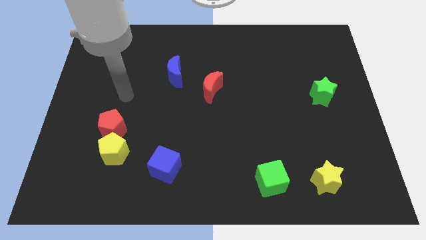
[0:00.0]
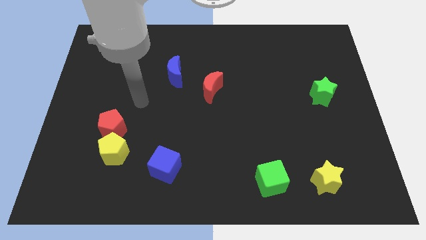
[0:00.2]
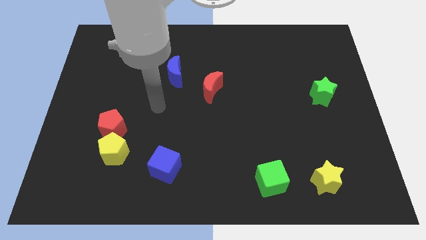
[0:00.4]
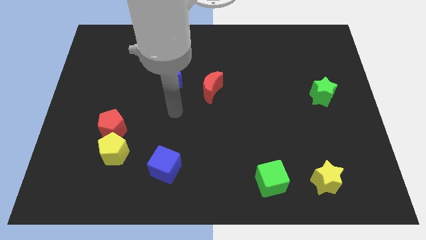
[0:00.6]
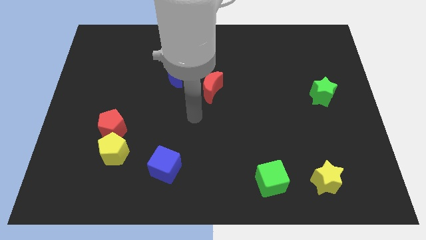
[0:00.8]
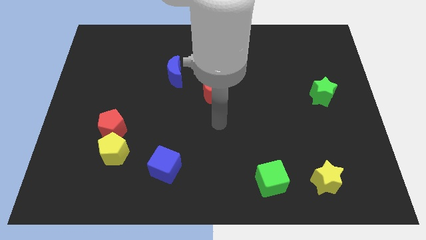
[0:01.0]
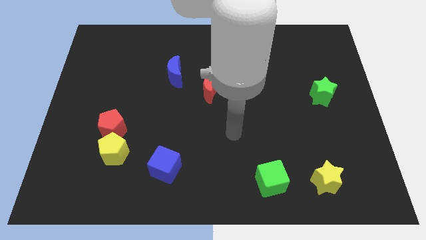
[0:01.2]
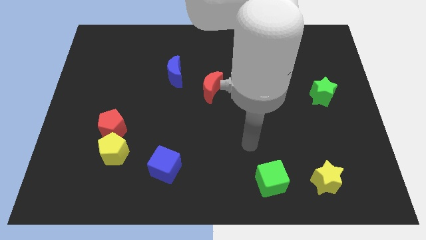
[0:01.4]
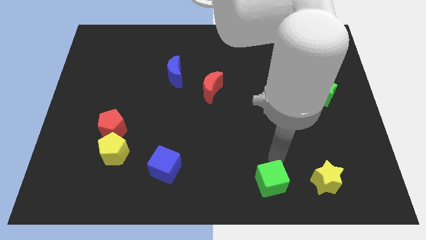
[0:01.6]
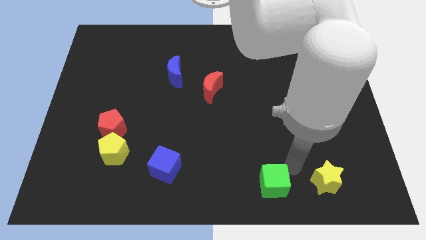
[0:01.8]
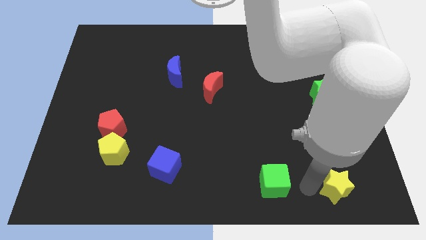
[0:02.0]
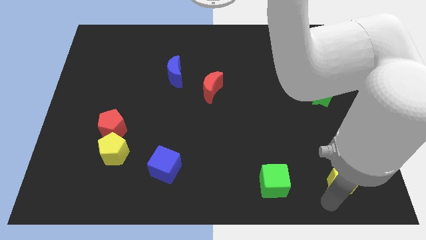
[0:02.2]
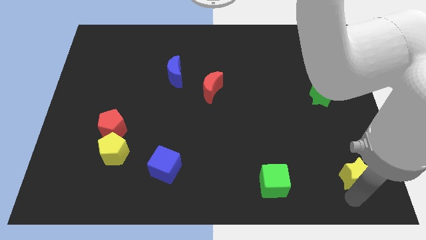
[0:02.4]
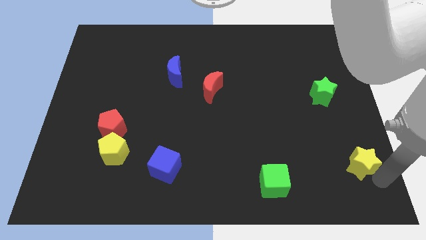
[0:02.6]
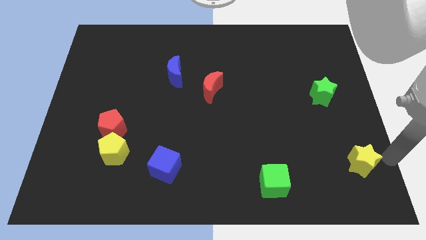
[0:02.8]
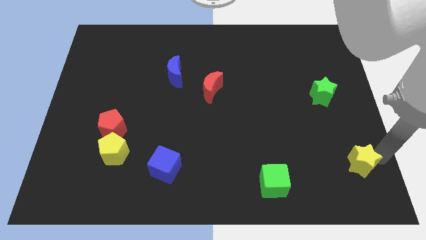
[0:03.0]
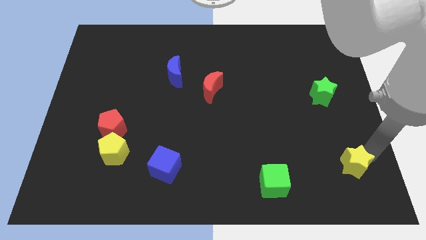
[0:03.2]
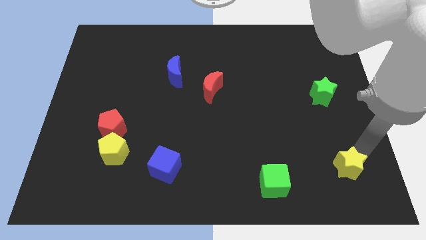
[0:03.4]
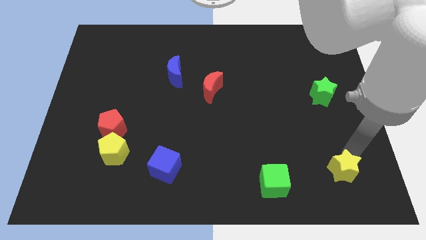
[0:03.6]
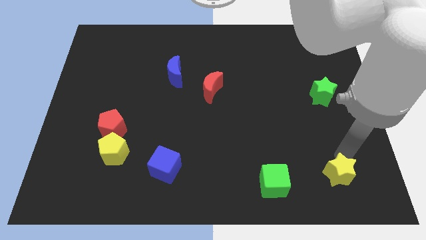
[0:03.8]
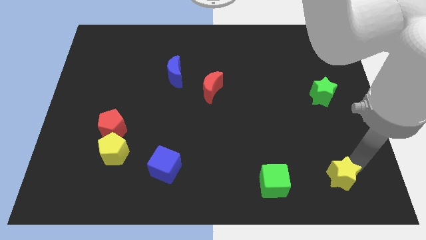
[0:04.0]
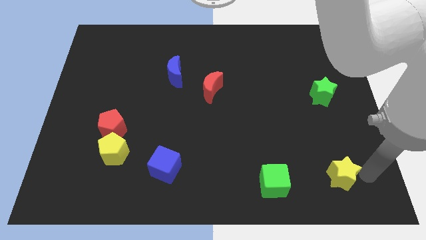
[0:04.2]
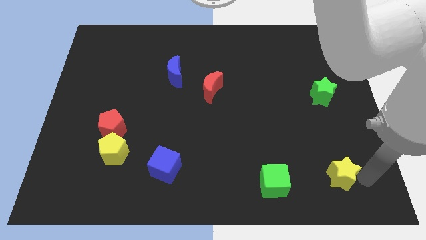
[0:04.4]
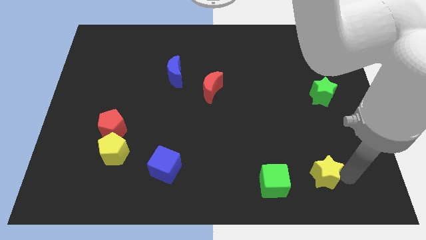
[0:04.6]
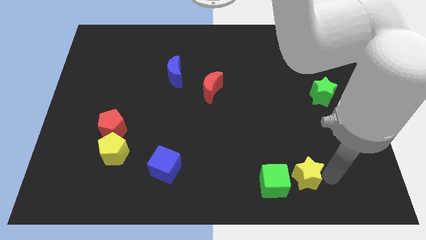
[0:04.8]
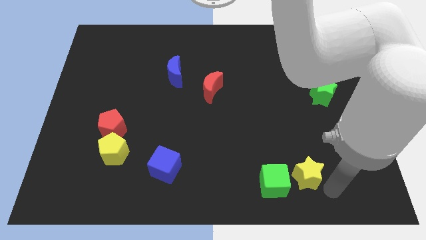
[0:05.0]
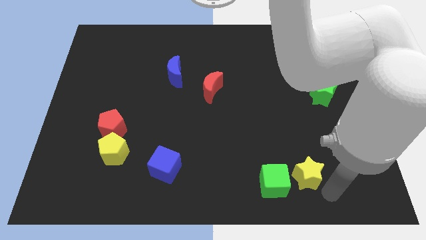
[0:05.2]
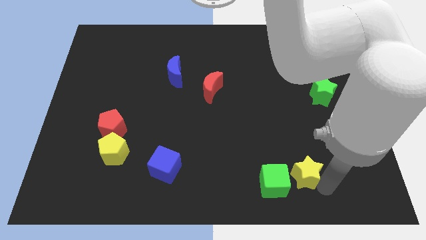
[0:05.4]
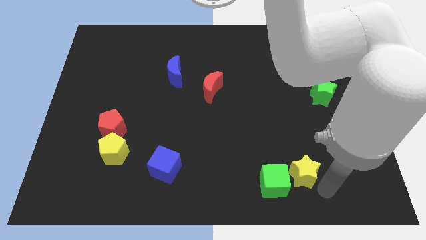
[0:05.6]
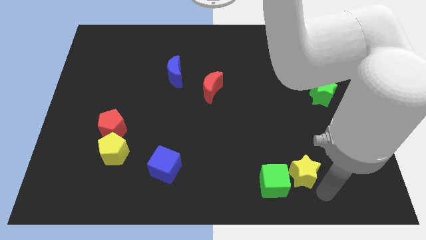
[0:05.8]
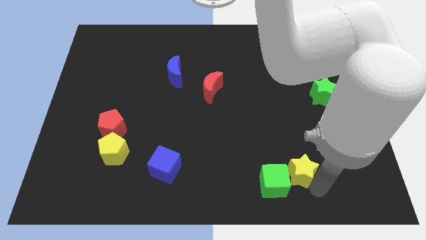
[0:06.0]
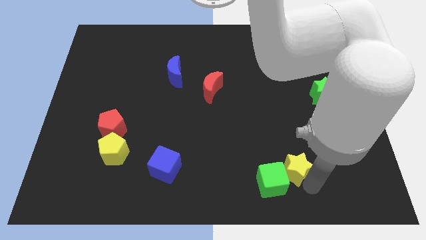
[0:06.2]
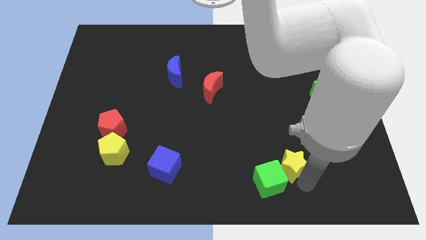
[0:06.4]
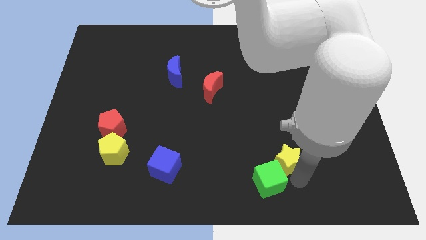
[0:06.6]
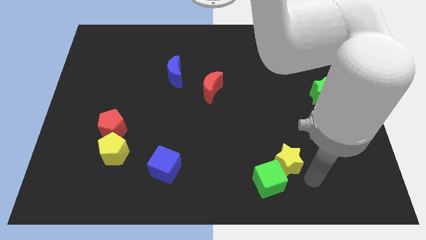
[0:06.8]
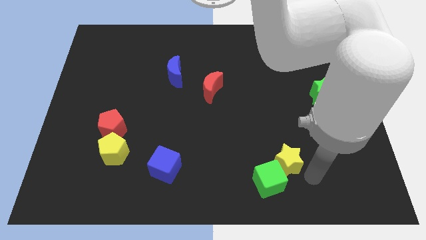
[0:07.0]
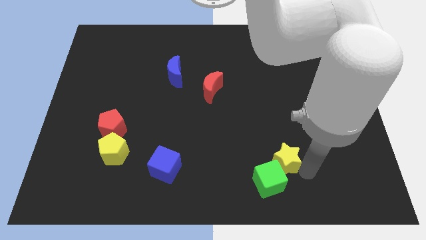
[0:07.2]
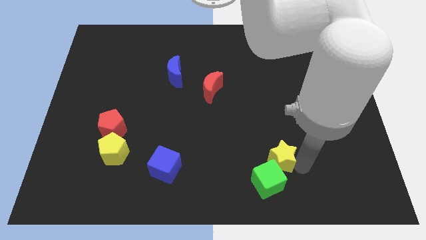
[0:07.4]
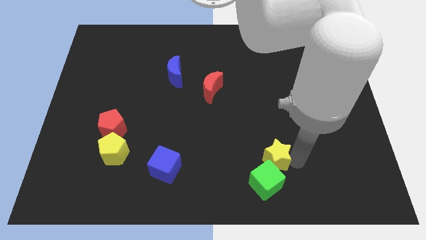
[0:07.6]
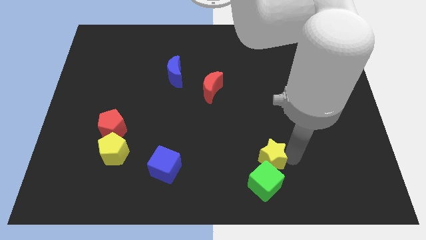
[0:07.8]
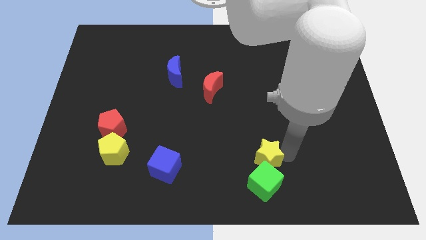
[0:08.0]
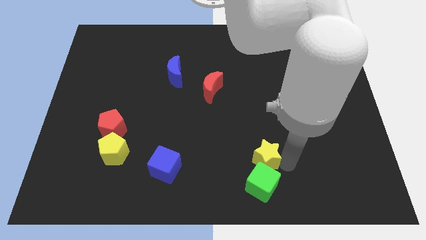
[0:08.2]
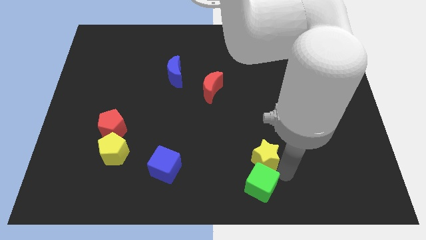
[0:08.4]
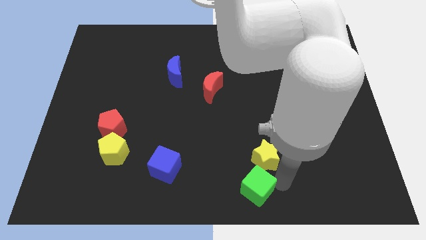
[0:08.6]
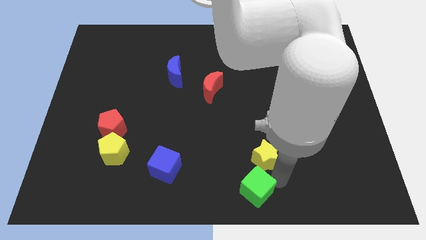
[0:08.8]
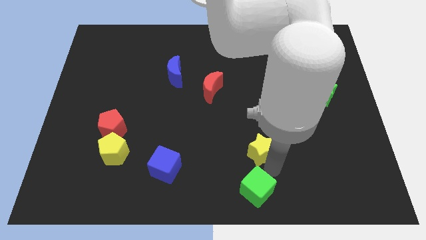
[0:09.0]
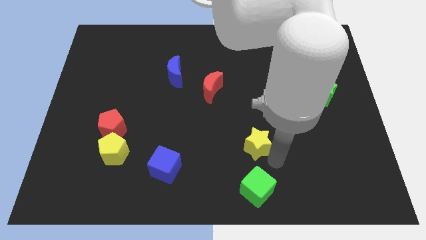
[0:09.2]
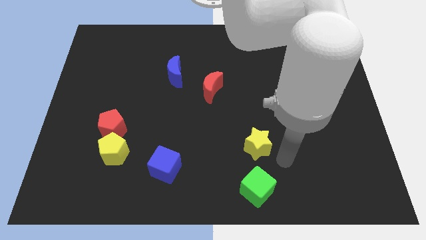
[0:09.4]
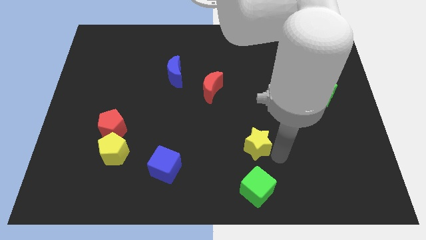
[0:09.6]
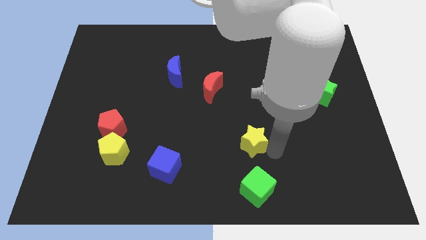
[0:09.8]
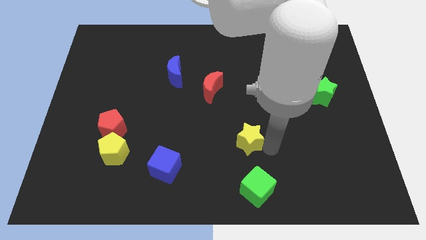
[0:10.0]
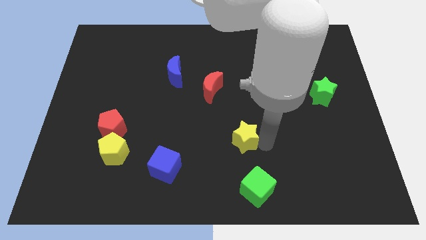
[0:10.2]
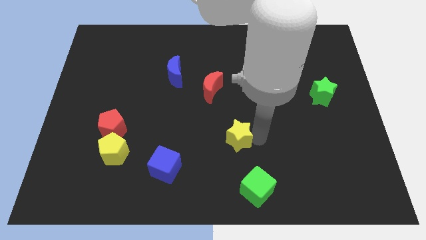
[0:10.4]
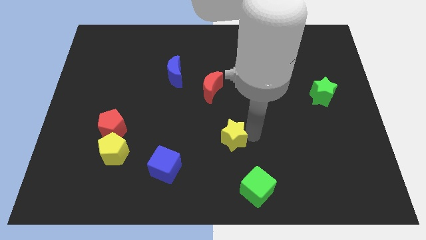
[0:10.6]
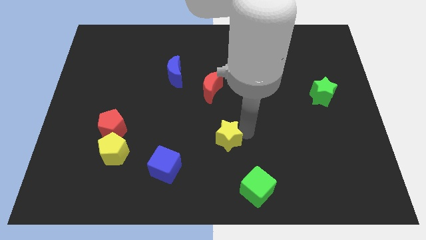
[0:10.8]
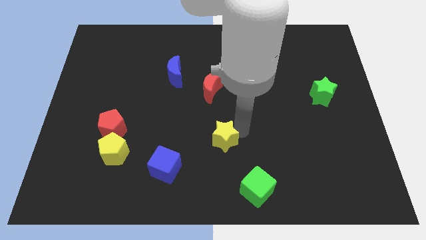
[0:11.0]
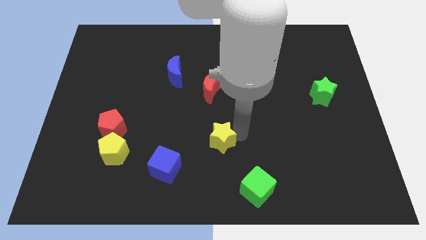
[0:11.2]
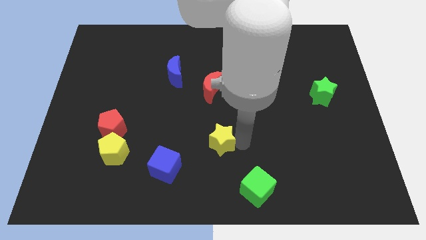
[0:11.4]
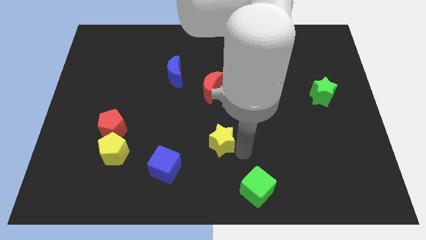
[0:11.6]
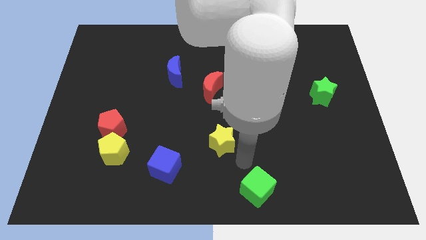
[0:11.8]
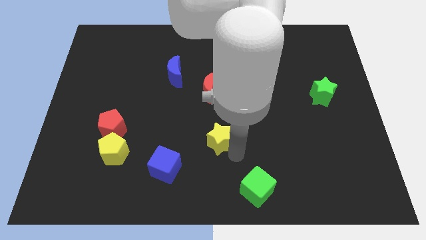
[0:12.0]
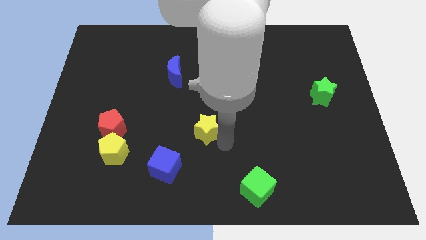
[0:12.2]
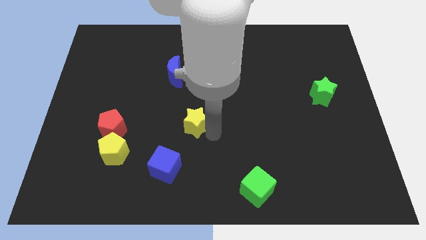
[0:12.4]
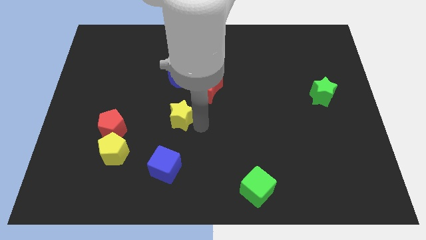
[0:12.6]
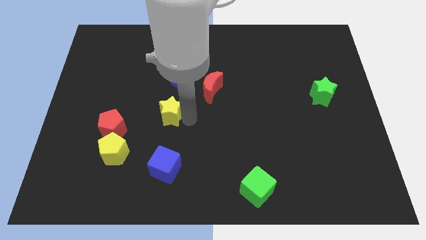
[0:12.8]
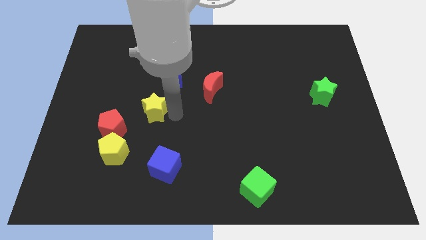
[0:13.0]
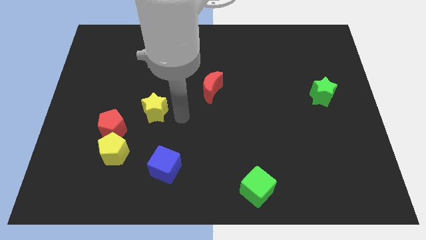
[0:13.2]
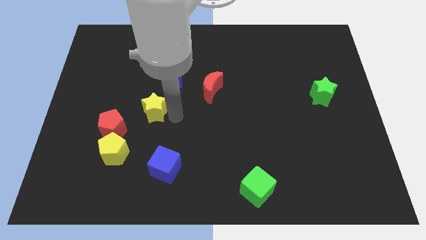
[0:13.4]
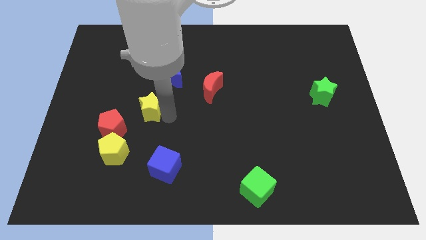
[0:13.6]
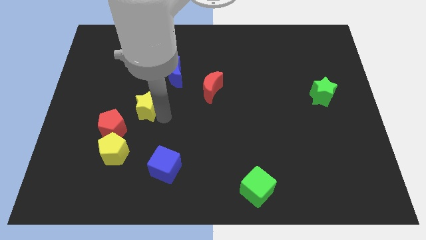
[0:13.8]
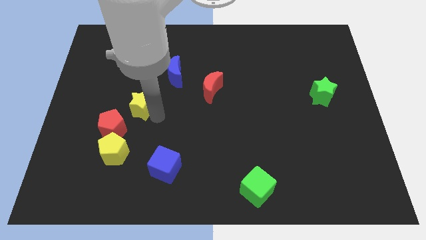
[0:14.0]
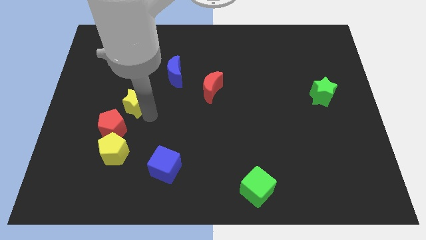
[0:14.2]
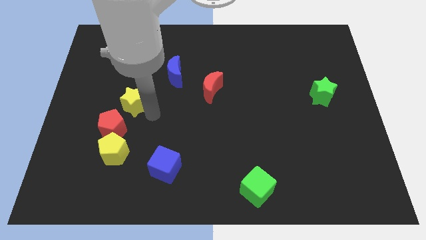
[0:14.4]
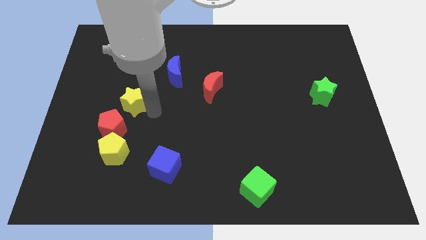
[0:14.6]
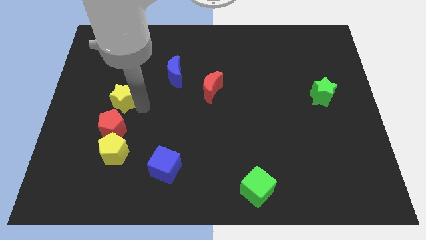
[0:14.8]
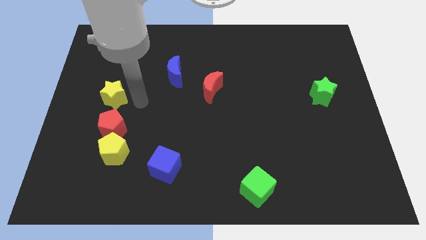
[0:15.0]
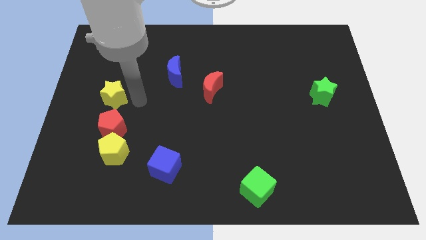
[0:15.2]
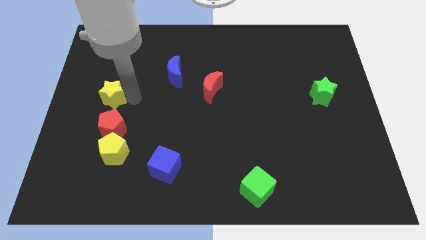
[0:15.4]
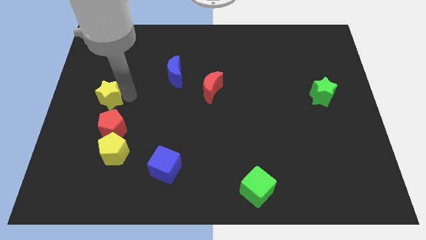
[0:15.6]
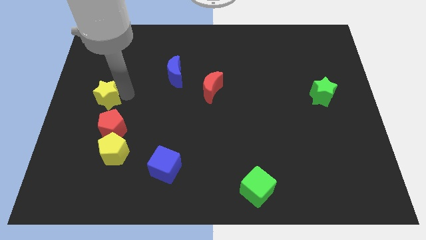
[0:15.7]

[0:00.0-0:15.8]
put the yellow star to the left side
